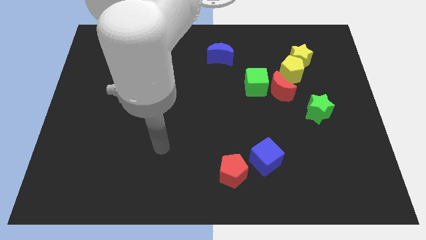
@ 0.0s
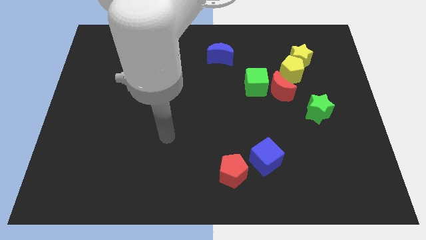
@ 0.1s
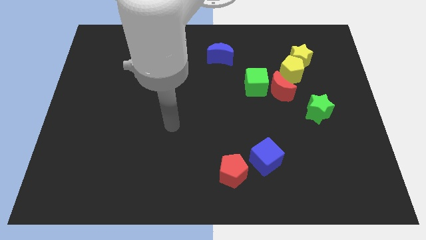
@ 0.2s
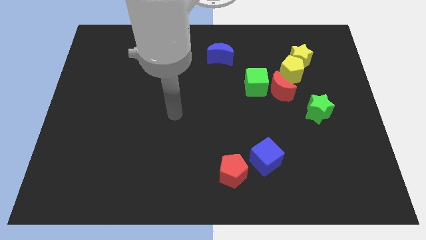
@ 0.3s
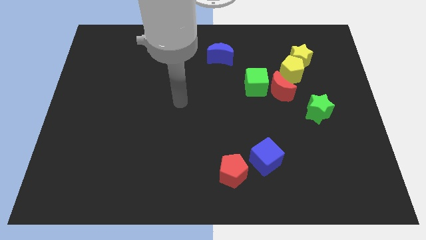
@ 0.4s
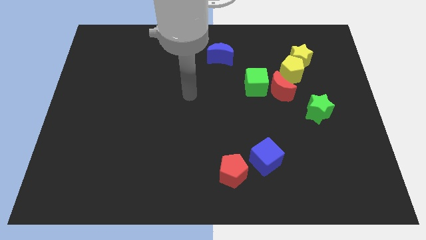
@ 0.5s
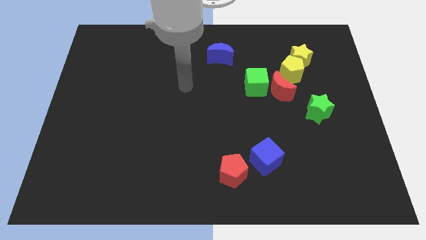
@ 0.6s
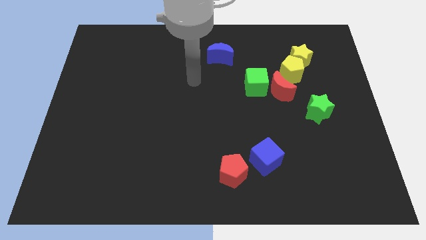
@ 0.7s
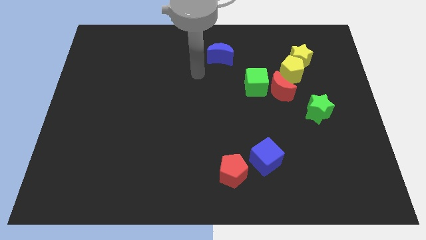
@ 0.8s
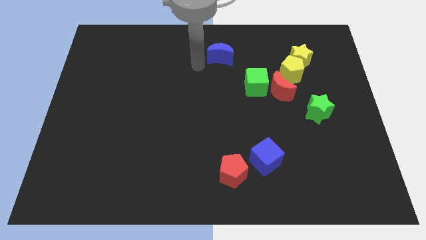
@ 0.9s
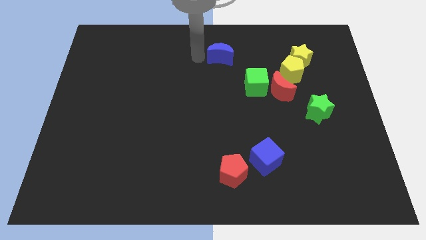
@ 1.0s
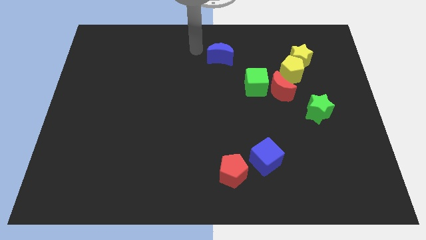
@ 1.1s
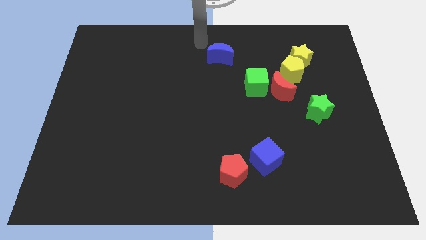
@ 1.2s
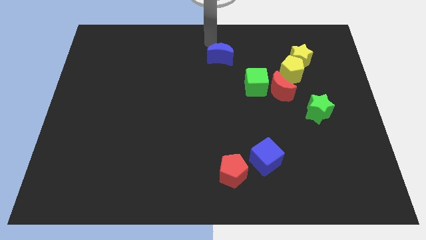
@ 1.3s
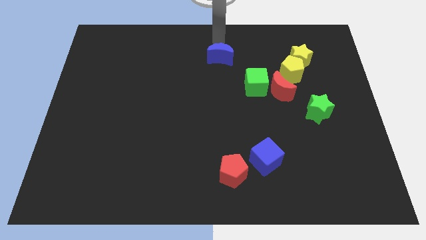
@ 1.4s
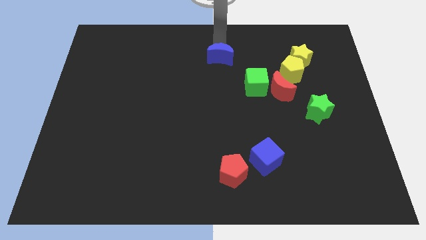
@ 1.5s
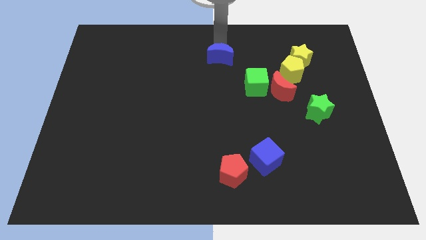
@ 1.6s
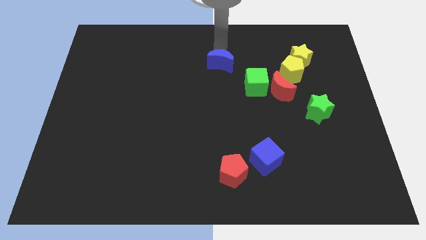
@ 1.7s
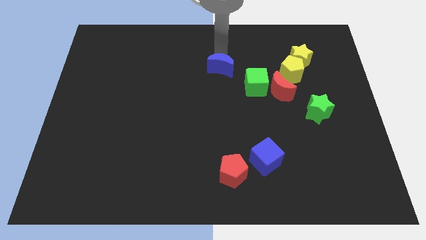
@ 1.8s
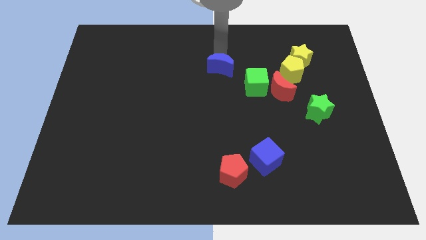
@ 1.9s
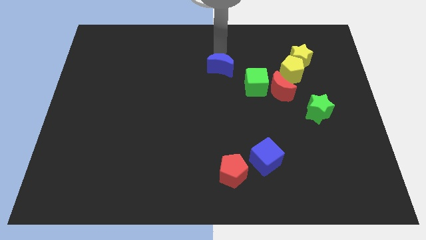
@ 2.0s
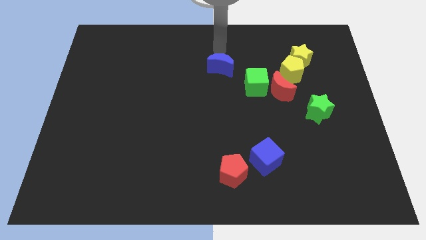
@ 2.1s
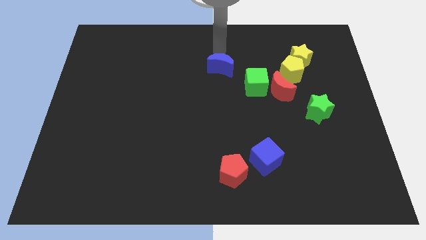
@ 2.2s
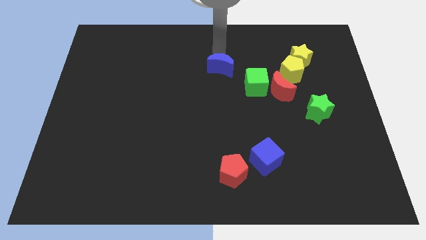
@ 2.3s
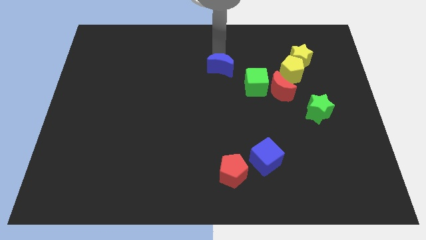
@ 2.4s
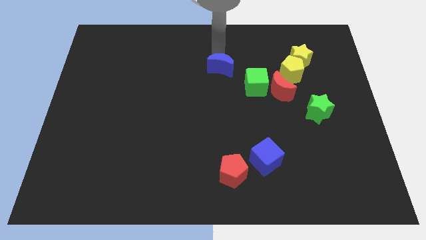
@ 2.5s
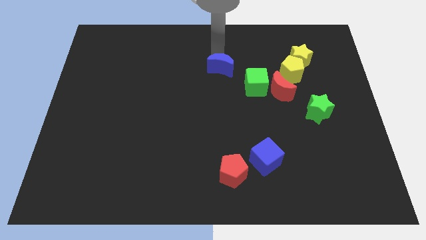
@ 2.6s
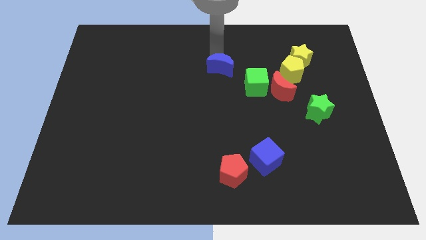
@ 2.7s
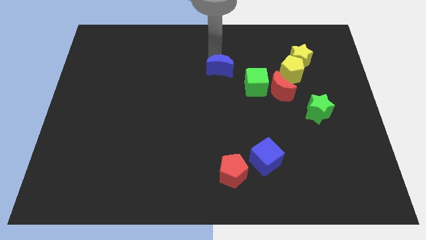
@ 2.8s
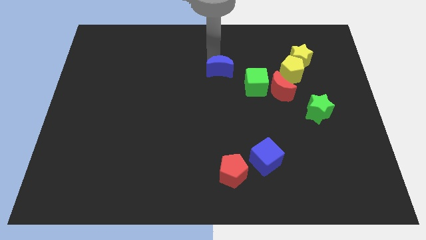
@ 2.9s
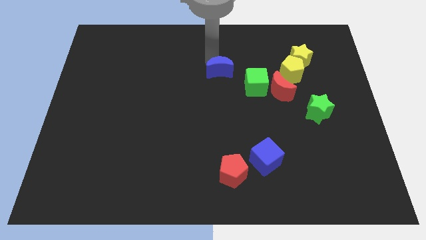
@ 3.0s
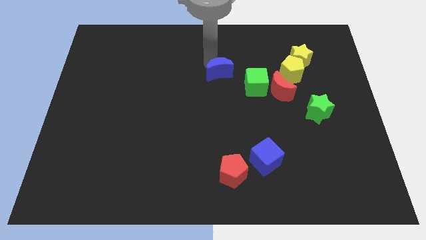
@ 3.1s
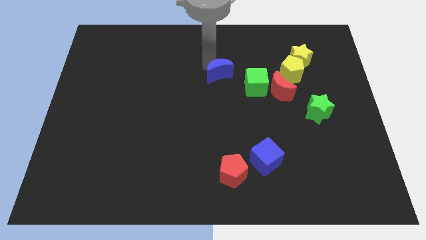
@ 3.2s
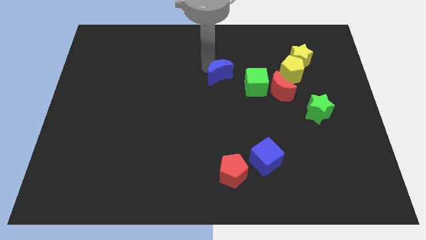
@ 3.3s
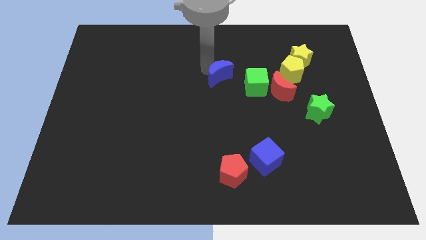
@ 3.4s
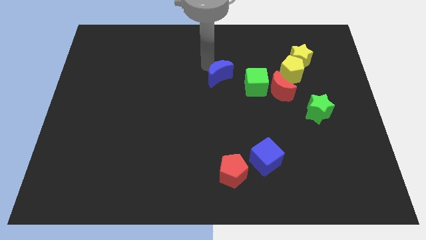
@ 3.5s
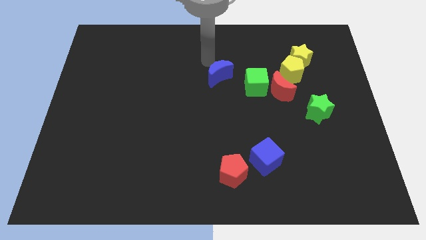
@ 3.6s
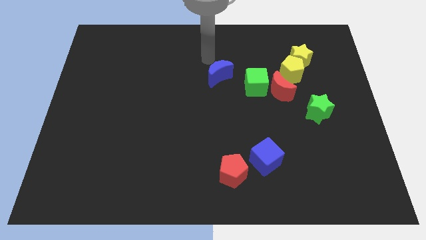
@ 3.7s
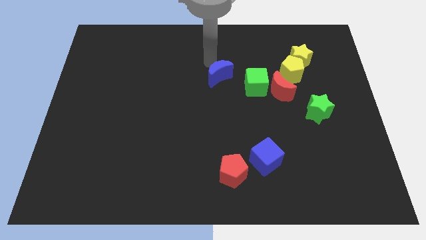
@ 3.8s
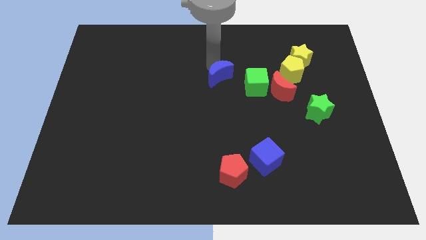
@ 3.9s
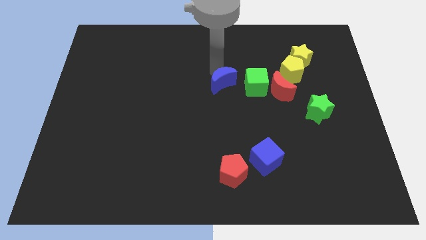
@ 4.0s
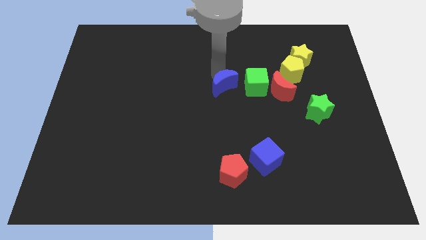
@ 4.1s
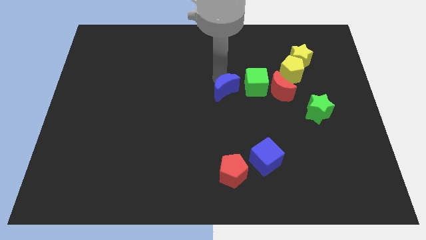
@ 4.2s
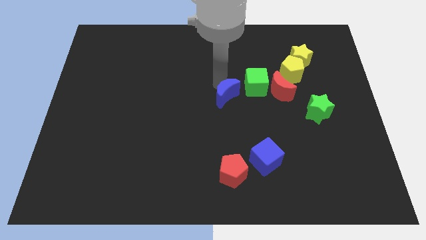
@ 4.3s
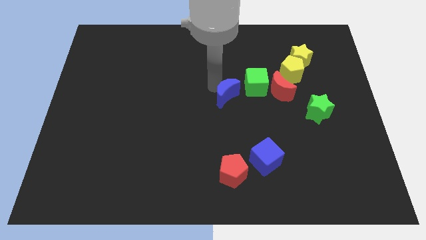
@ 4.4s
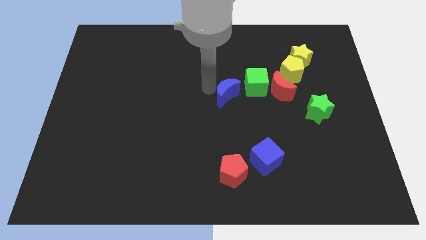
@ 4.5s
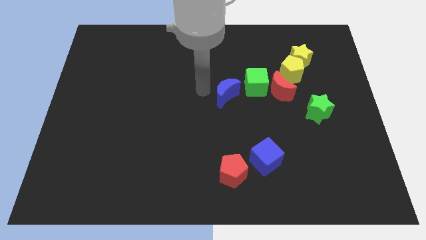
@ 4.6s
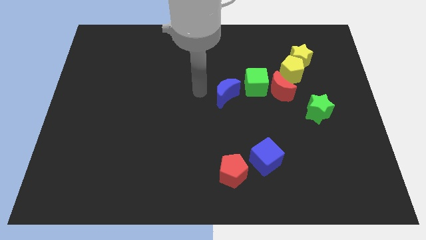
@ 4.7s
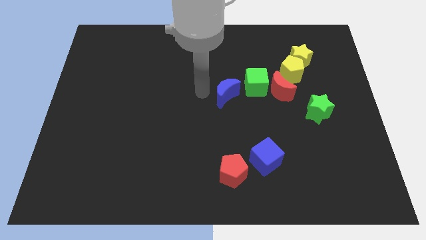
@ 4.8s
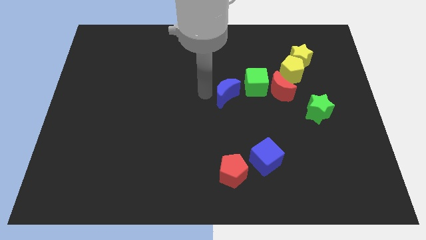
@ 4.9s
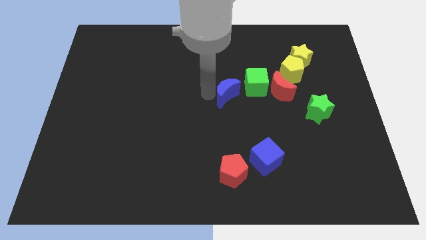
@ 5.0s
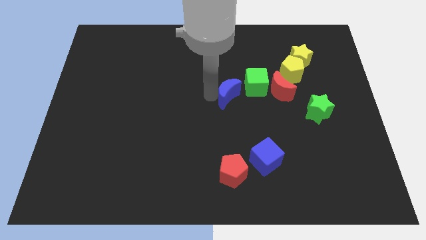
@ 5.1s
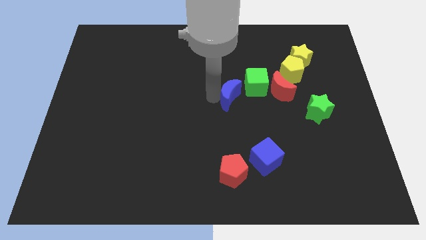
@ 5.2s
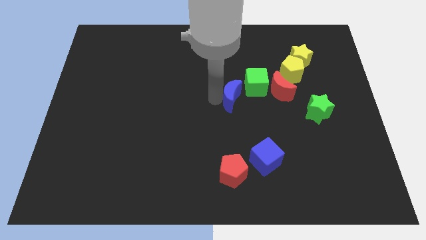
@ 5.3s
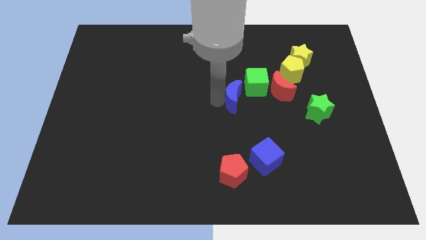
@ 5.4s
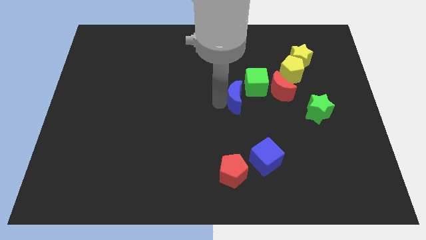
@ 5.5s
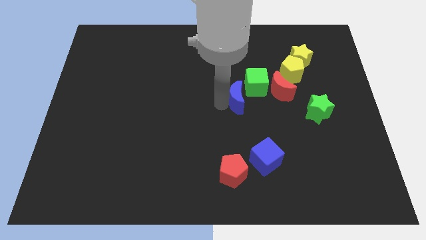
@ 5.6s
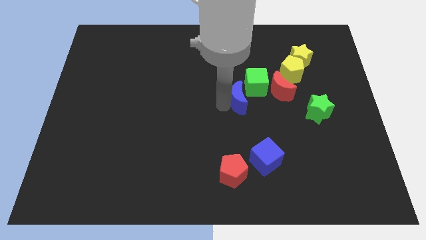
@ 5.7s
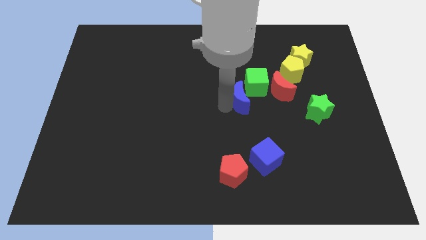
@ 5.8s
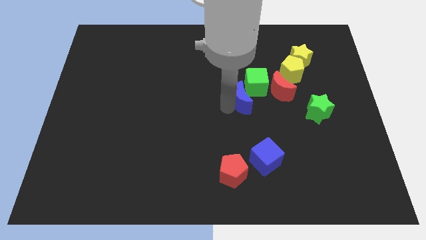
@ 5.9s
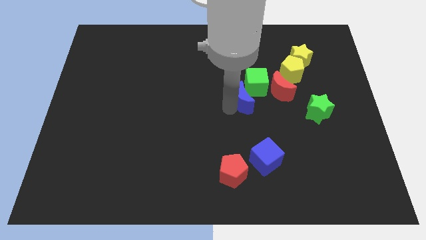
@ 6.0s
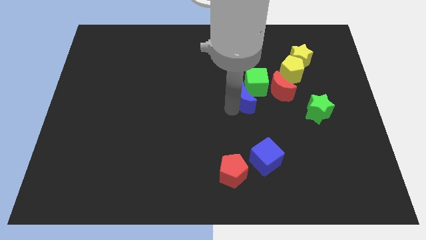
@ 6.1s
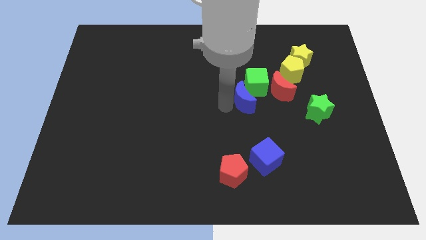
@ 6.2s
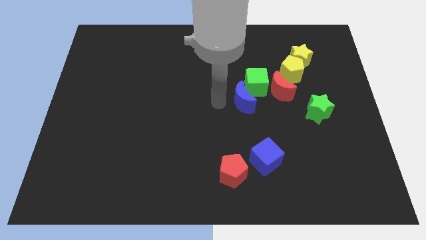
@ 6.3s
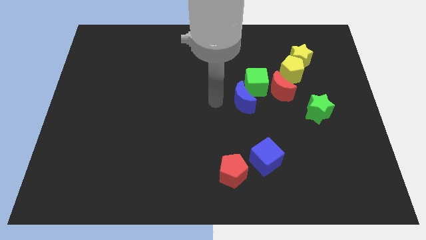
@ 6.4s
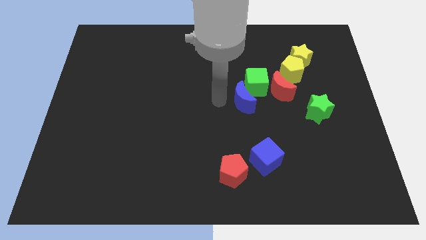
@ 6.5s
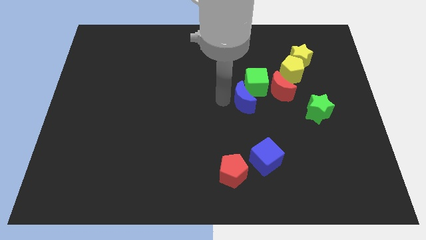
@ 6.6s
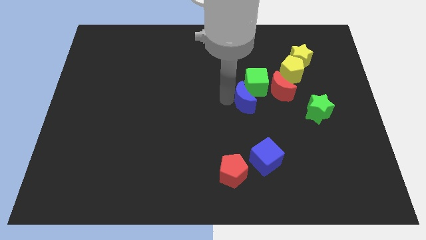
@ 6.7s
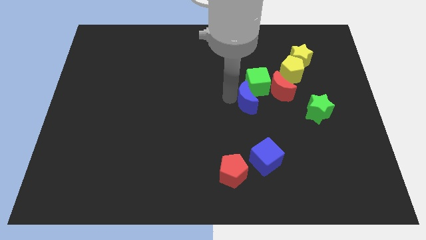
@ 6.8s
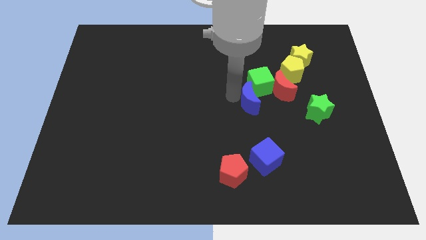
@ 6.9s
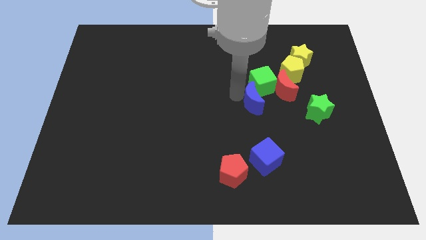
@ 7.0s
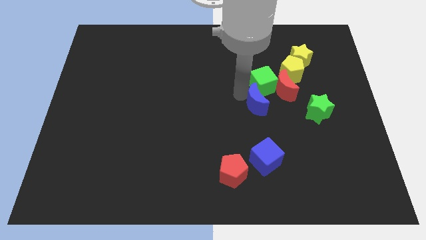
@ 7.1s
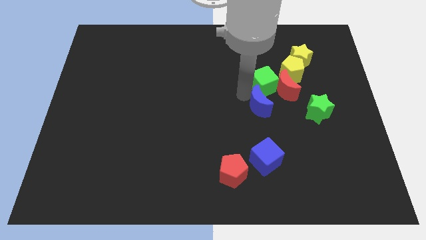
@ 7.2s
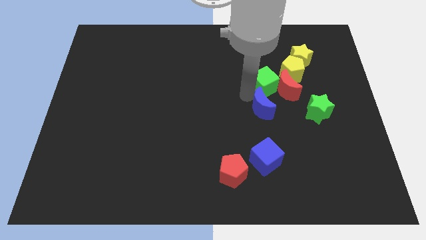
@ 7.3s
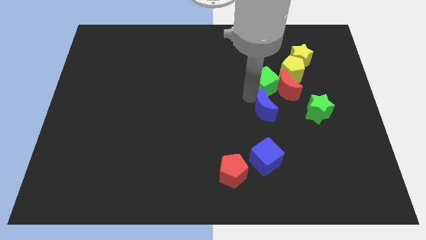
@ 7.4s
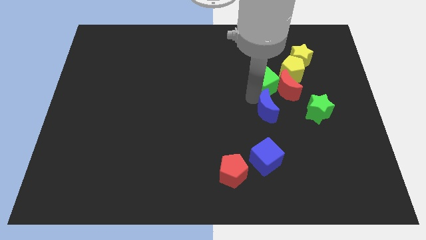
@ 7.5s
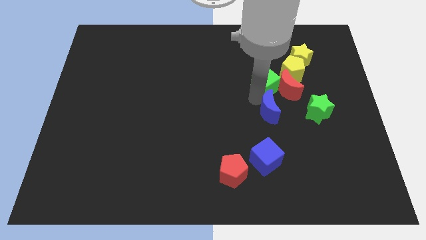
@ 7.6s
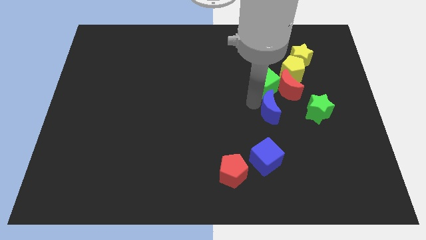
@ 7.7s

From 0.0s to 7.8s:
push the blue moon diagonally down and to the right of the green cube

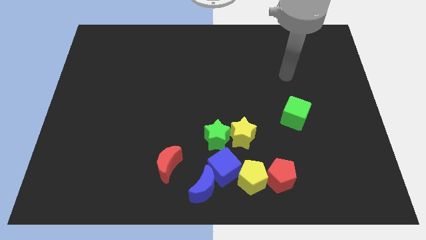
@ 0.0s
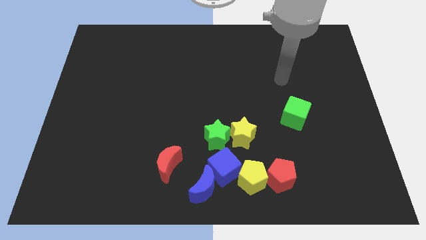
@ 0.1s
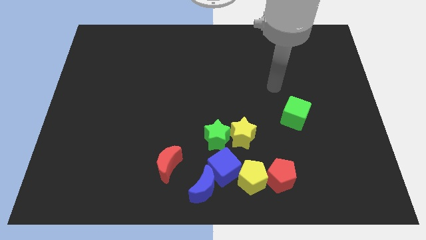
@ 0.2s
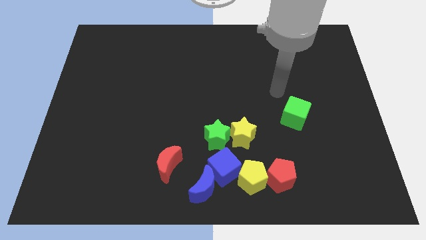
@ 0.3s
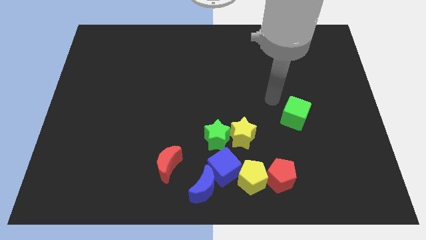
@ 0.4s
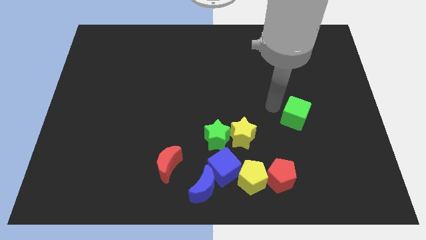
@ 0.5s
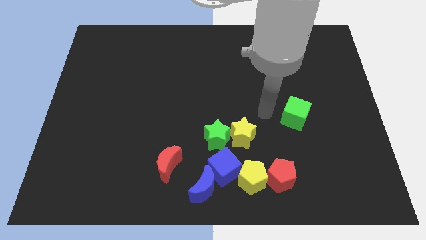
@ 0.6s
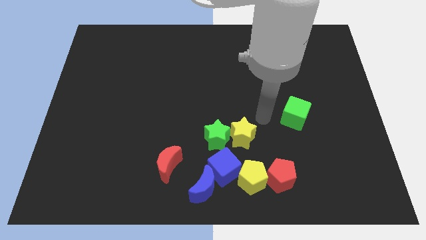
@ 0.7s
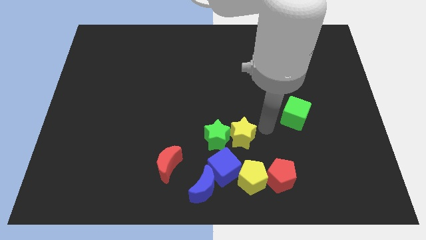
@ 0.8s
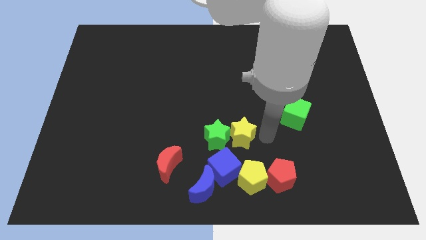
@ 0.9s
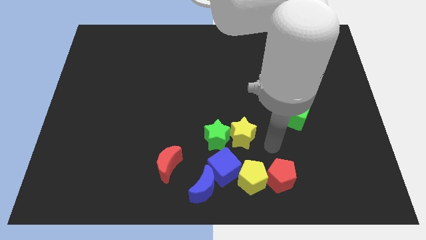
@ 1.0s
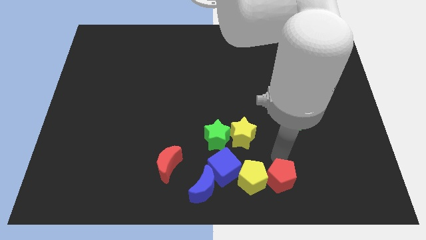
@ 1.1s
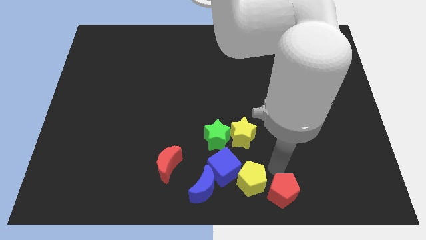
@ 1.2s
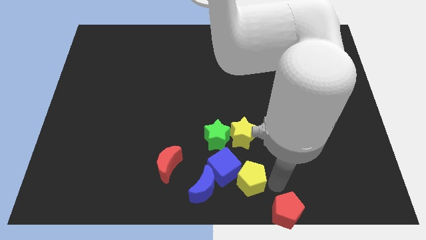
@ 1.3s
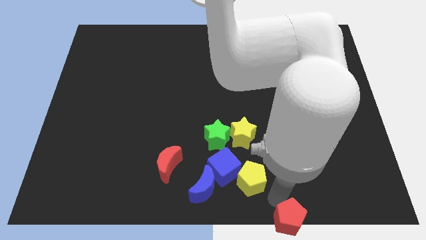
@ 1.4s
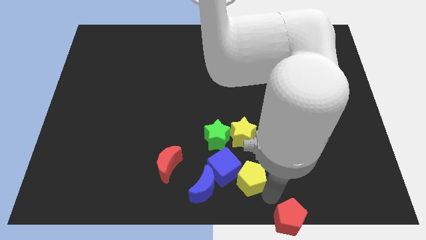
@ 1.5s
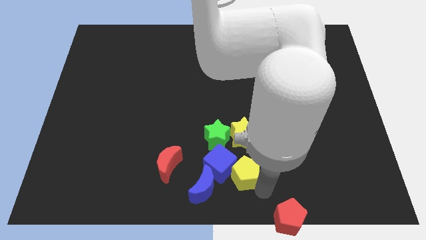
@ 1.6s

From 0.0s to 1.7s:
put the yellow pentagon to the top right side of the blue moon
